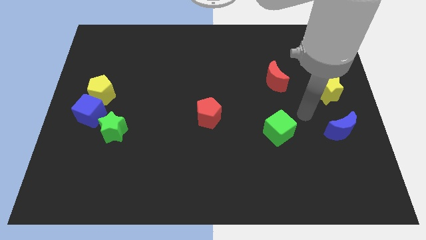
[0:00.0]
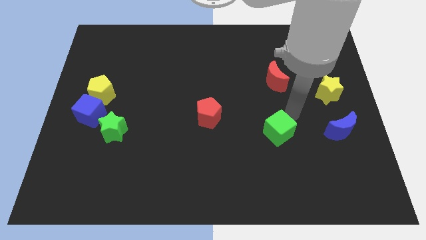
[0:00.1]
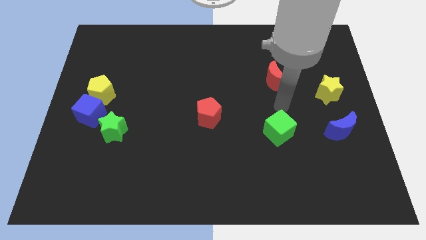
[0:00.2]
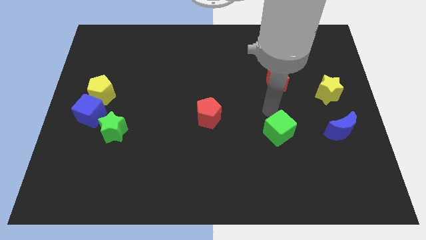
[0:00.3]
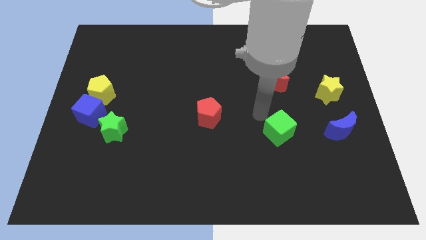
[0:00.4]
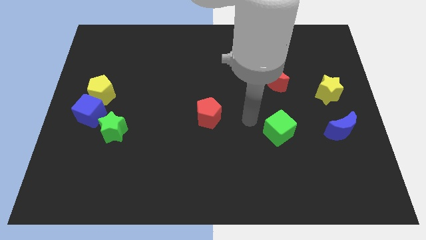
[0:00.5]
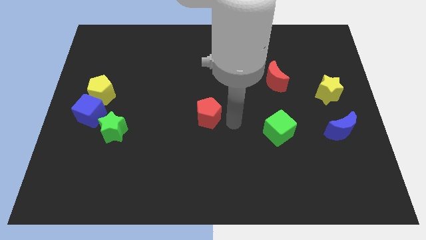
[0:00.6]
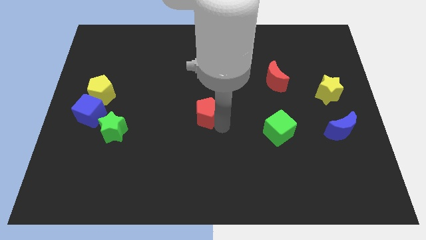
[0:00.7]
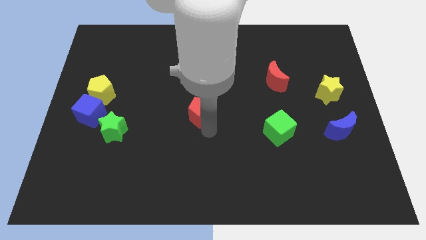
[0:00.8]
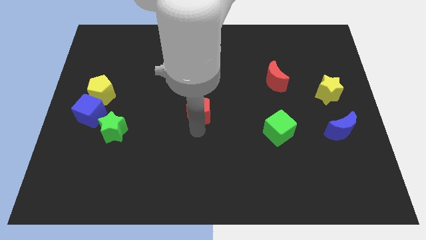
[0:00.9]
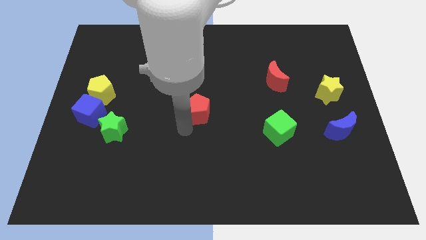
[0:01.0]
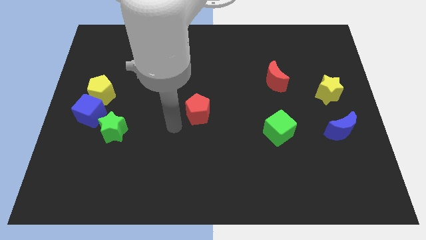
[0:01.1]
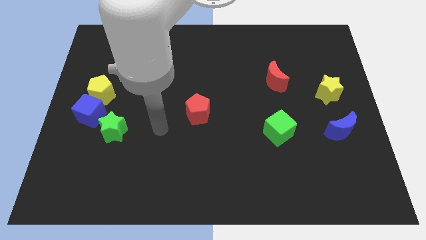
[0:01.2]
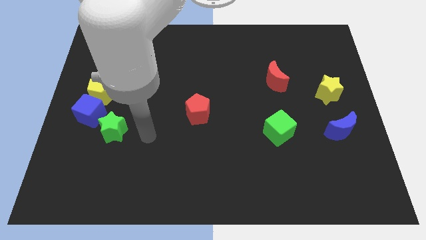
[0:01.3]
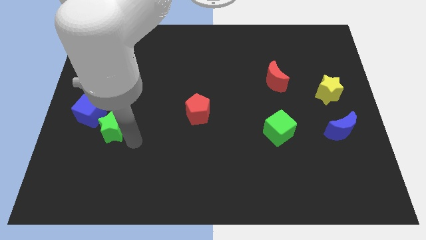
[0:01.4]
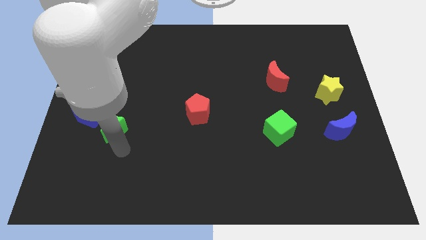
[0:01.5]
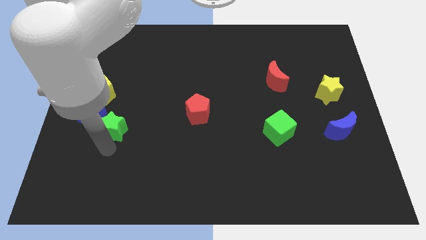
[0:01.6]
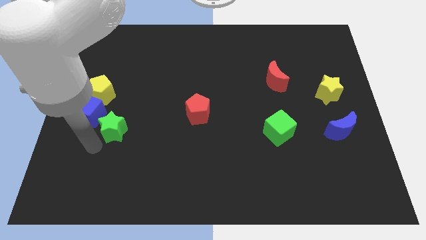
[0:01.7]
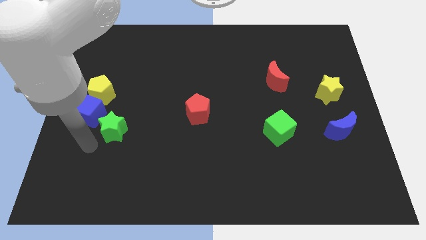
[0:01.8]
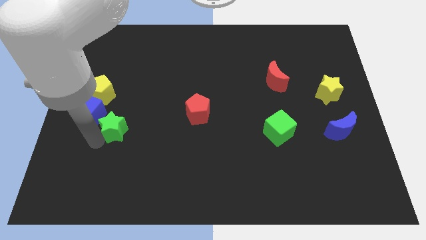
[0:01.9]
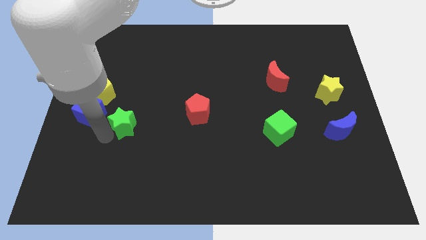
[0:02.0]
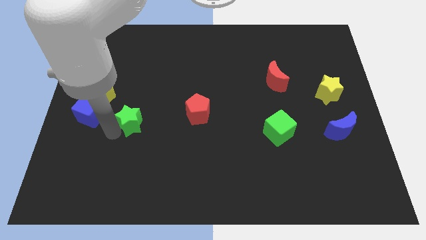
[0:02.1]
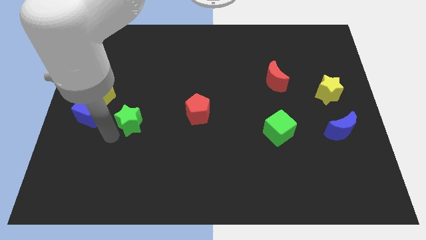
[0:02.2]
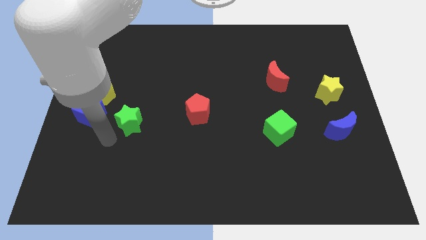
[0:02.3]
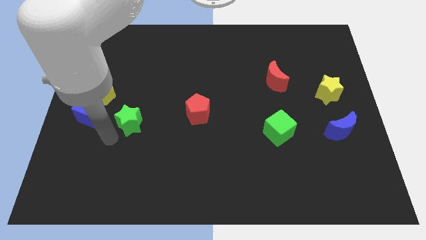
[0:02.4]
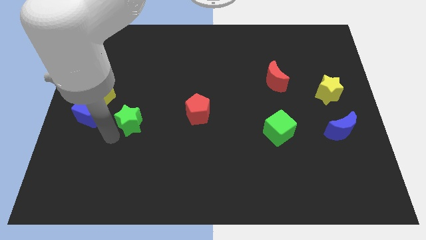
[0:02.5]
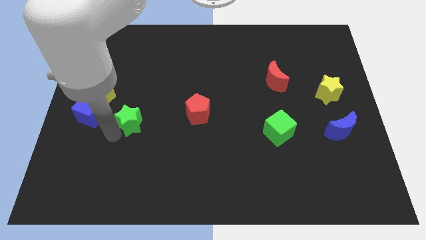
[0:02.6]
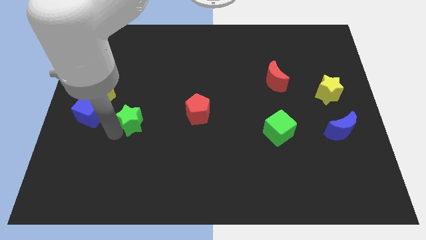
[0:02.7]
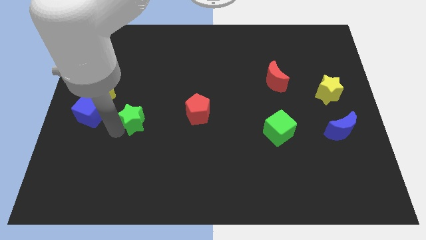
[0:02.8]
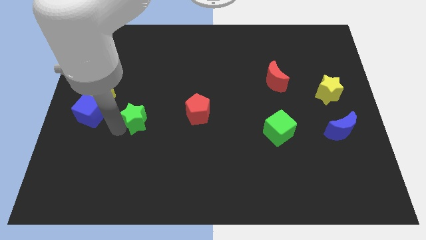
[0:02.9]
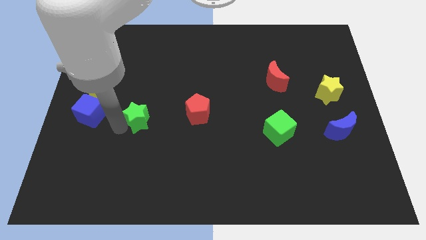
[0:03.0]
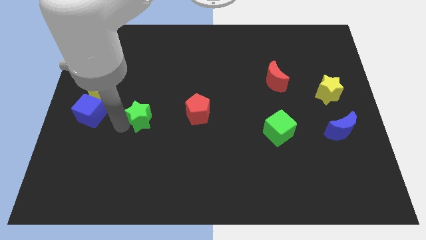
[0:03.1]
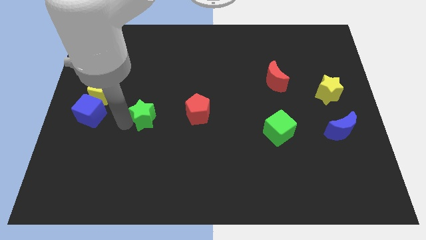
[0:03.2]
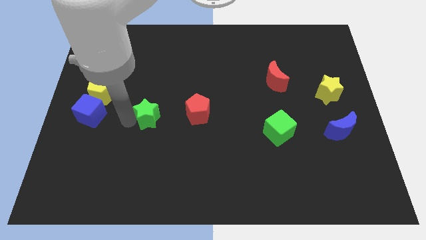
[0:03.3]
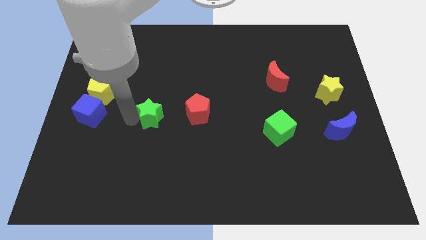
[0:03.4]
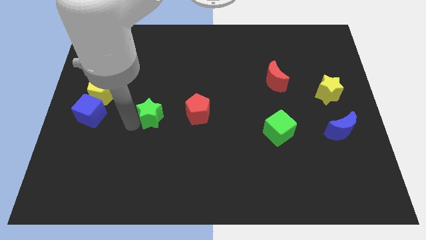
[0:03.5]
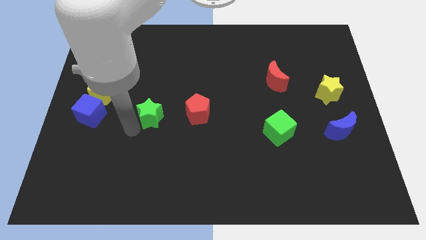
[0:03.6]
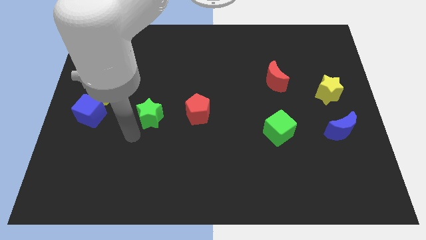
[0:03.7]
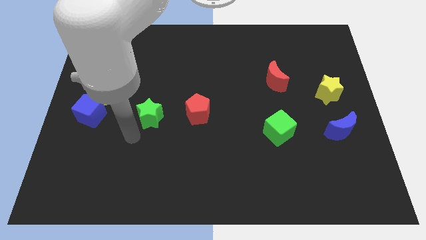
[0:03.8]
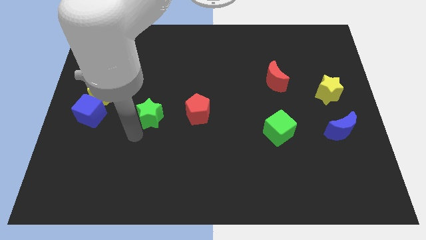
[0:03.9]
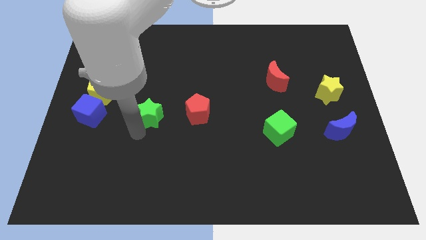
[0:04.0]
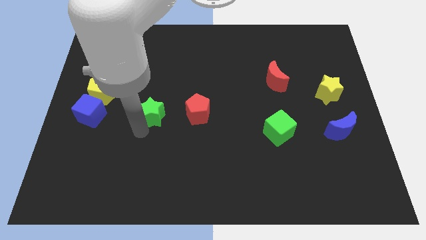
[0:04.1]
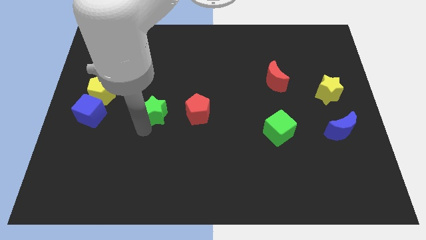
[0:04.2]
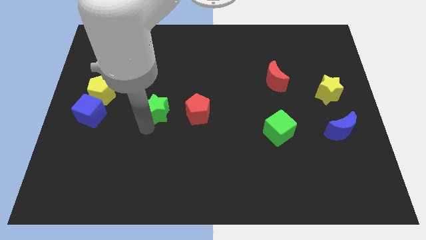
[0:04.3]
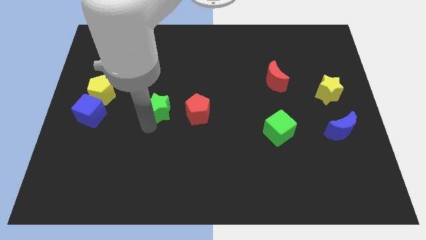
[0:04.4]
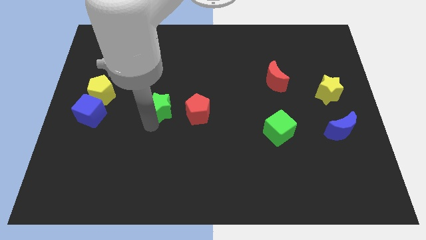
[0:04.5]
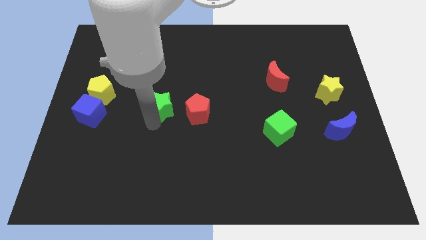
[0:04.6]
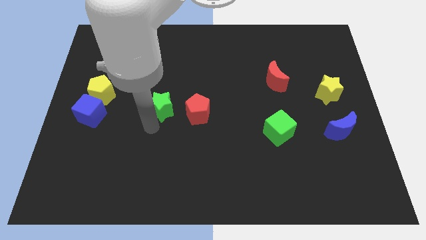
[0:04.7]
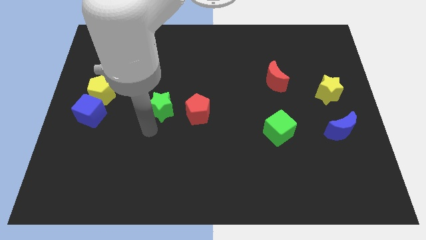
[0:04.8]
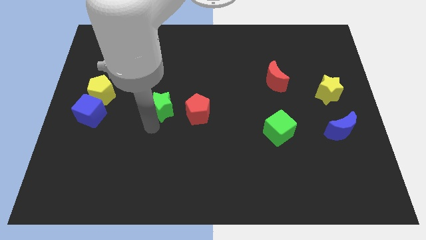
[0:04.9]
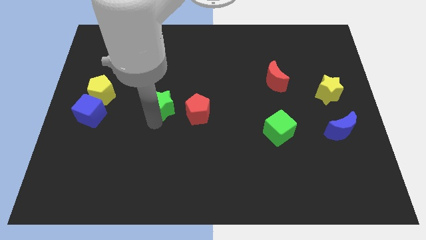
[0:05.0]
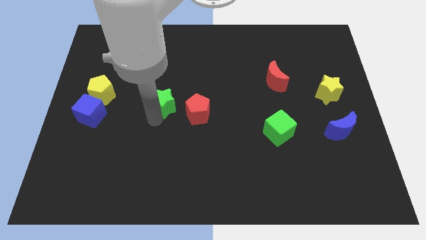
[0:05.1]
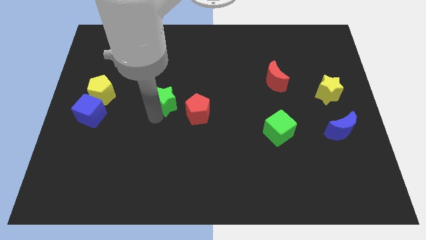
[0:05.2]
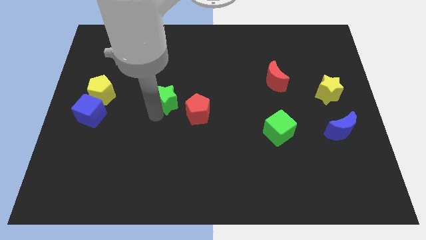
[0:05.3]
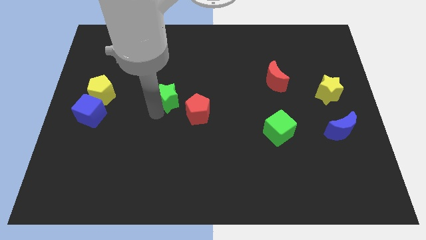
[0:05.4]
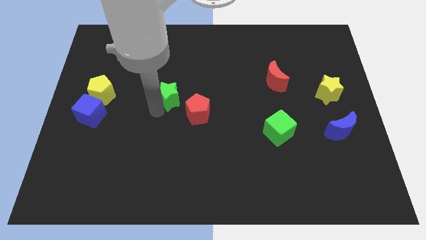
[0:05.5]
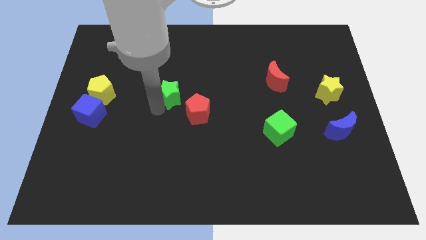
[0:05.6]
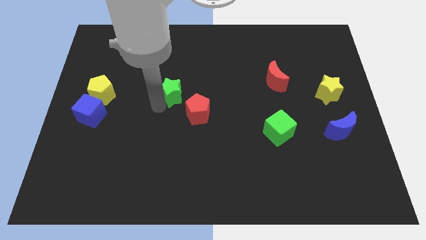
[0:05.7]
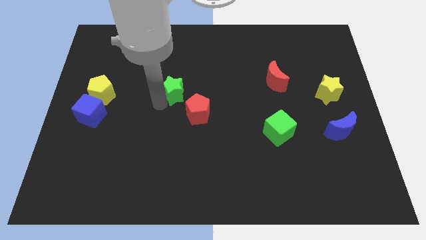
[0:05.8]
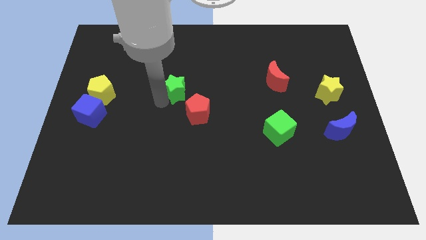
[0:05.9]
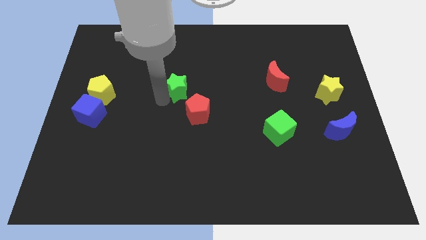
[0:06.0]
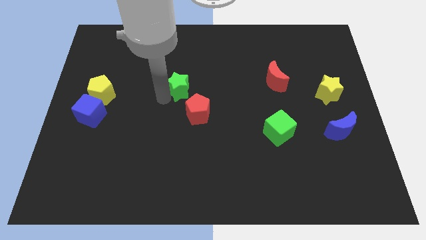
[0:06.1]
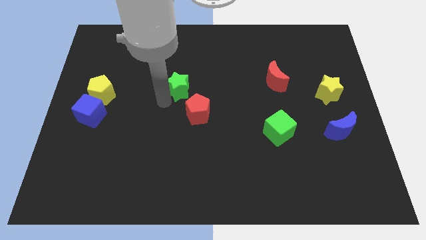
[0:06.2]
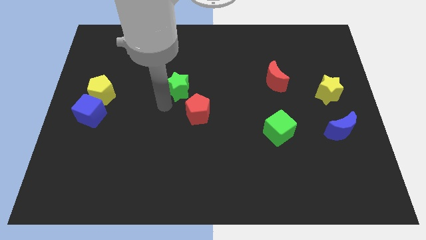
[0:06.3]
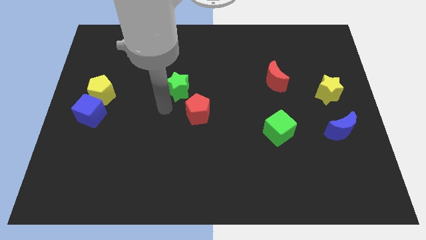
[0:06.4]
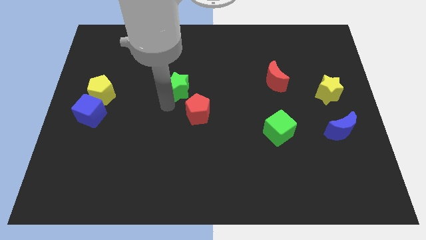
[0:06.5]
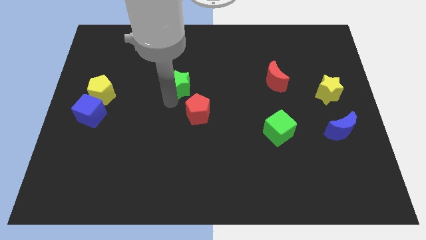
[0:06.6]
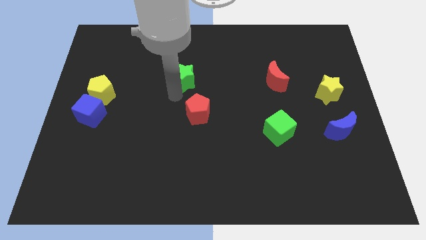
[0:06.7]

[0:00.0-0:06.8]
push the green star upwards and to the right diagonally

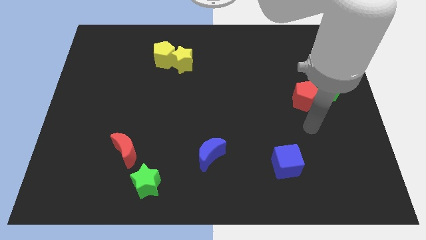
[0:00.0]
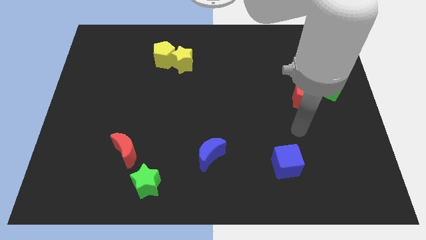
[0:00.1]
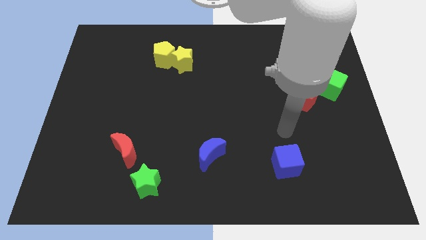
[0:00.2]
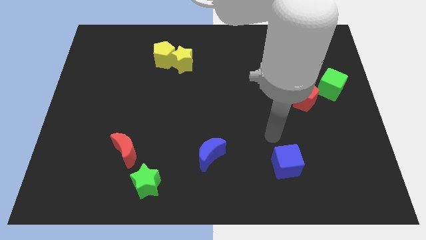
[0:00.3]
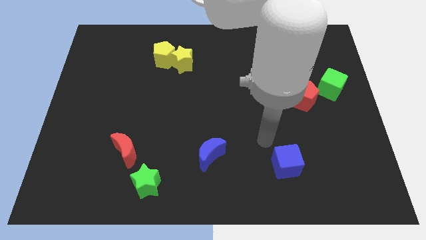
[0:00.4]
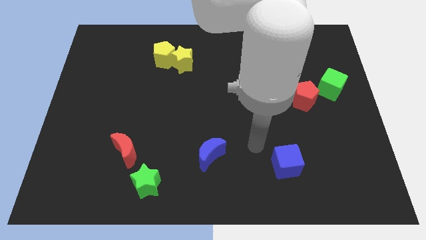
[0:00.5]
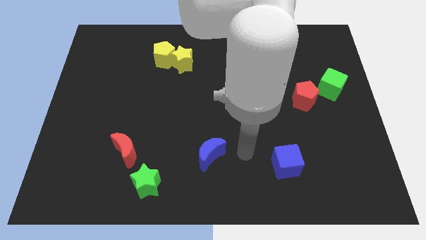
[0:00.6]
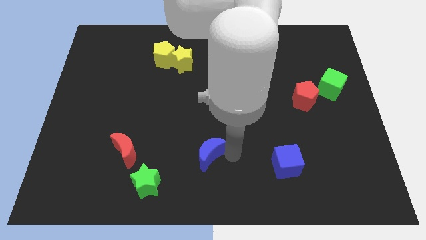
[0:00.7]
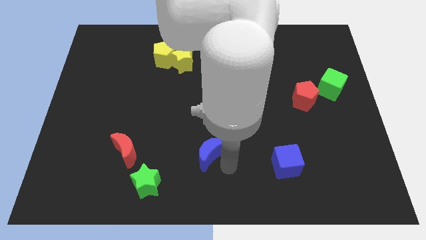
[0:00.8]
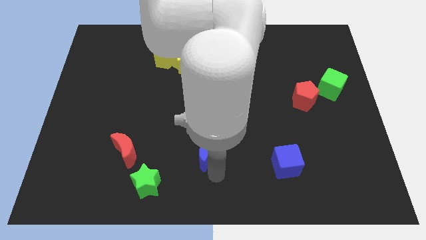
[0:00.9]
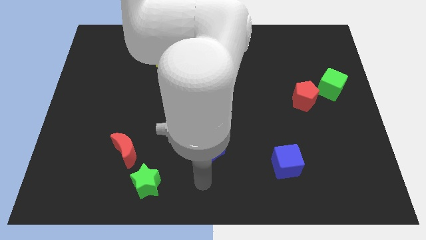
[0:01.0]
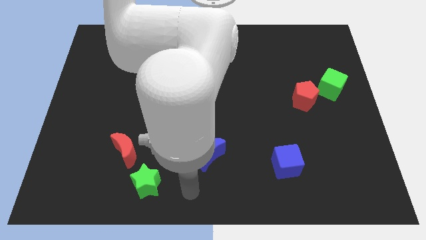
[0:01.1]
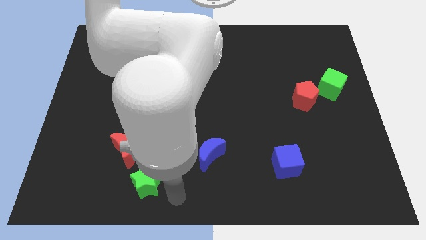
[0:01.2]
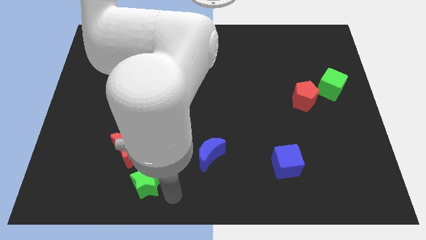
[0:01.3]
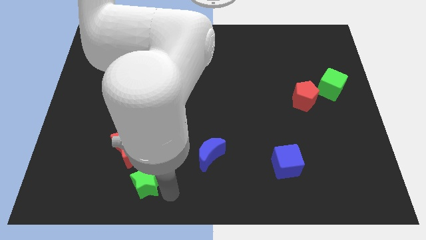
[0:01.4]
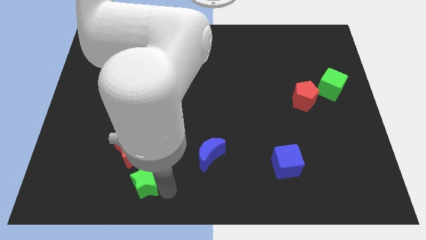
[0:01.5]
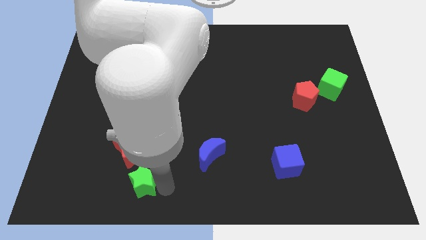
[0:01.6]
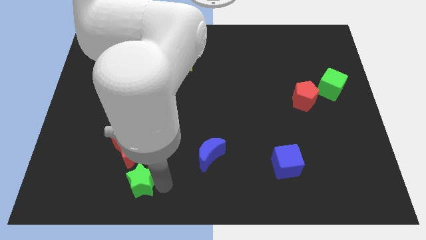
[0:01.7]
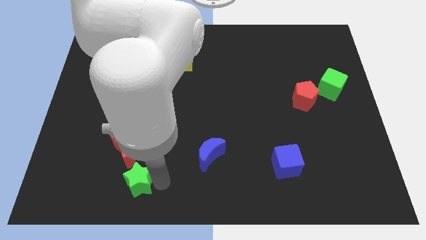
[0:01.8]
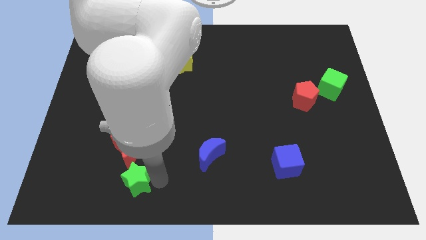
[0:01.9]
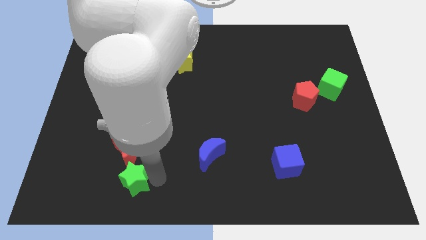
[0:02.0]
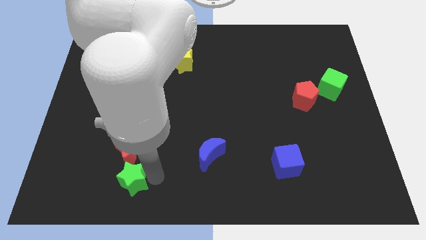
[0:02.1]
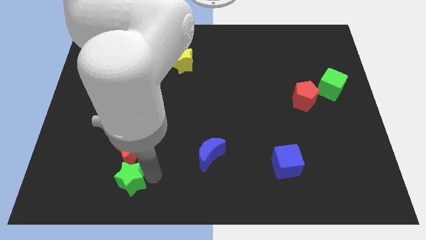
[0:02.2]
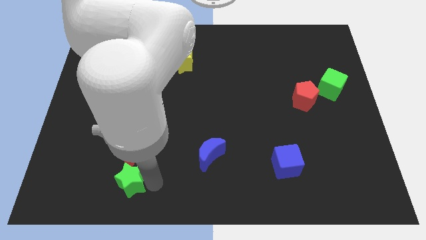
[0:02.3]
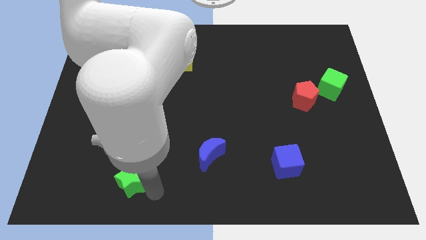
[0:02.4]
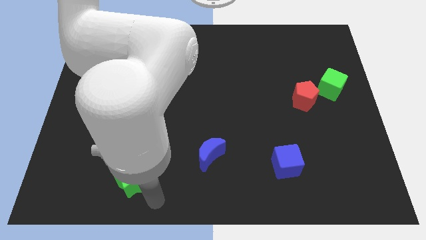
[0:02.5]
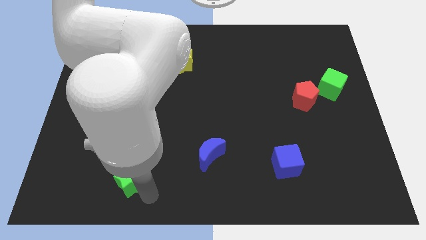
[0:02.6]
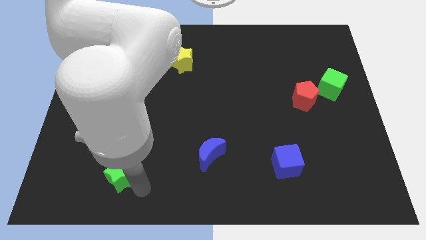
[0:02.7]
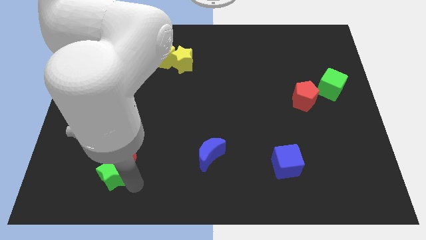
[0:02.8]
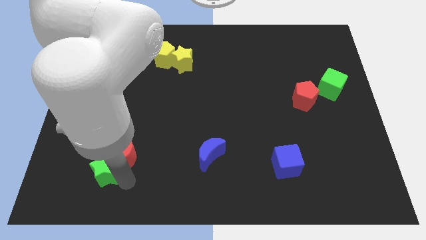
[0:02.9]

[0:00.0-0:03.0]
move the green star a little bit up and then to the left
